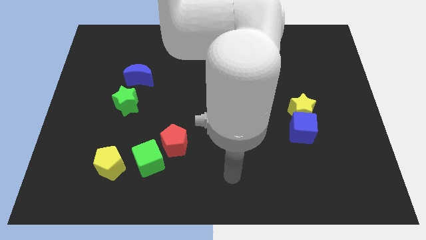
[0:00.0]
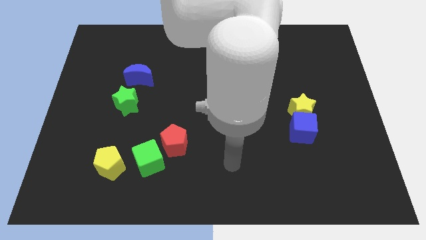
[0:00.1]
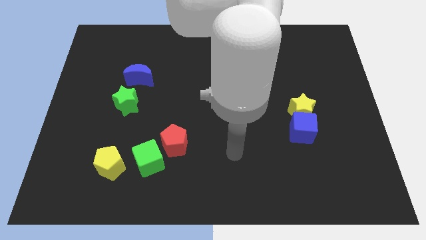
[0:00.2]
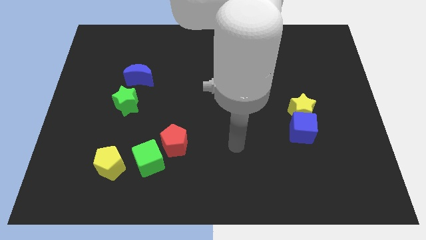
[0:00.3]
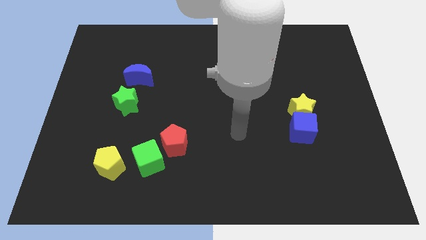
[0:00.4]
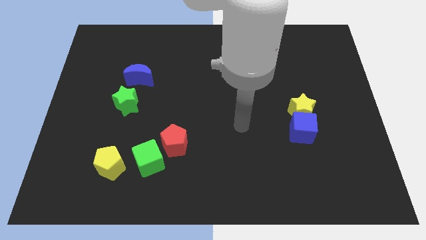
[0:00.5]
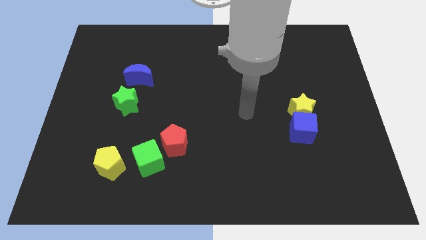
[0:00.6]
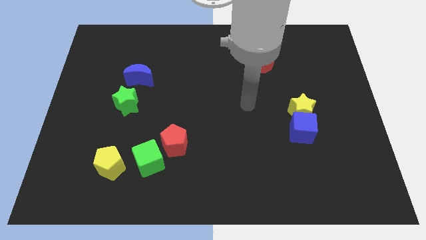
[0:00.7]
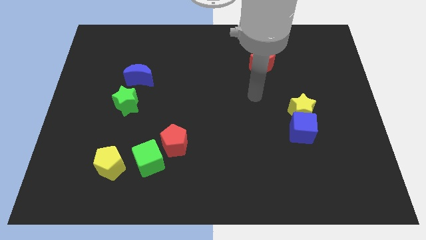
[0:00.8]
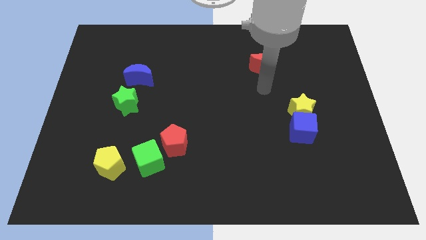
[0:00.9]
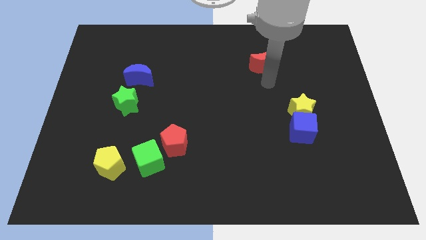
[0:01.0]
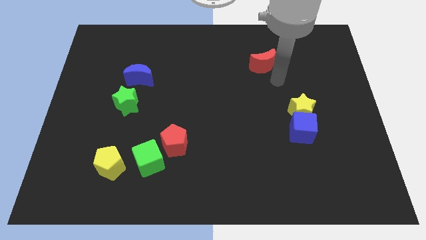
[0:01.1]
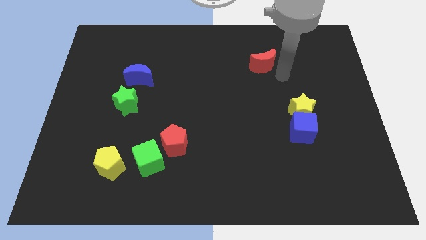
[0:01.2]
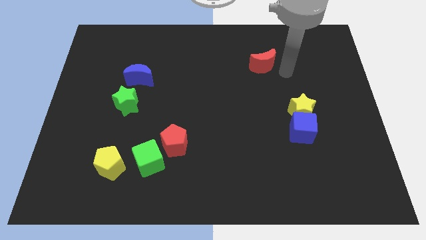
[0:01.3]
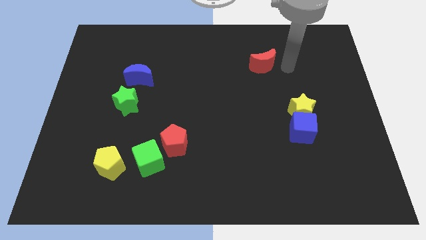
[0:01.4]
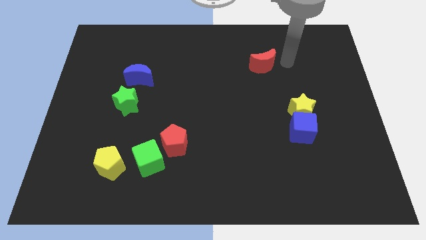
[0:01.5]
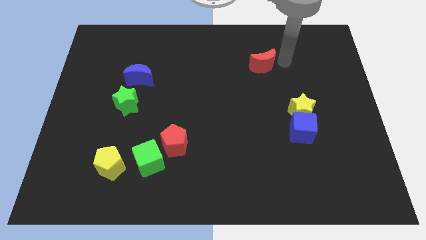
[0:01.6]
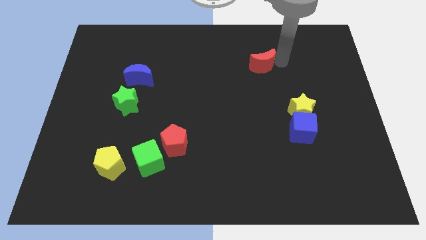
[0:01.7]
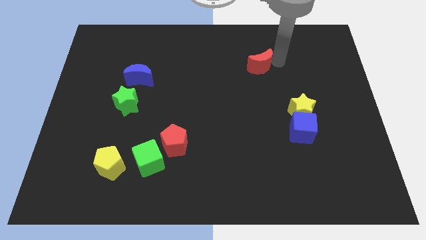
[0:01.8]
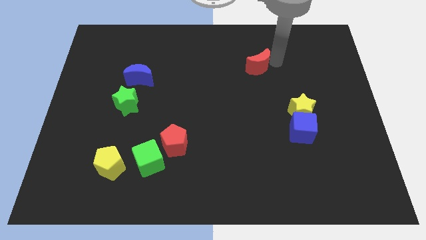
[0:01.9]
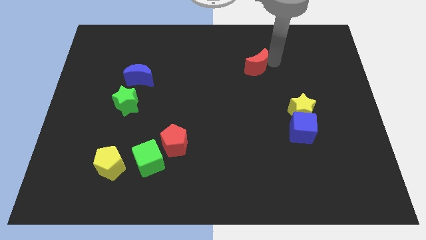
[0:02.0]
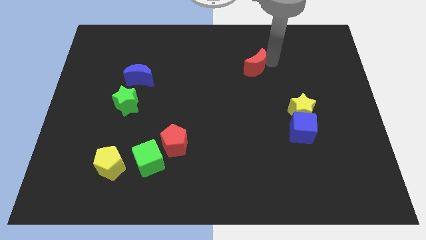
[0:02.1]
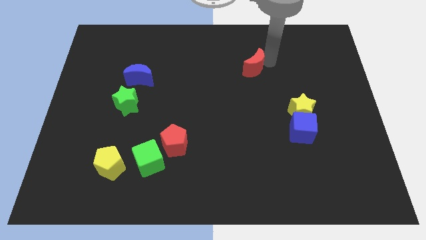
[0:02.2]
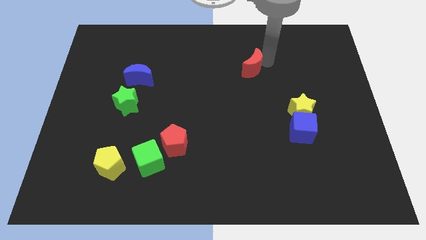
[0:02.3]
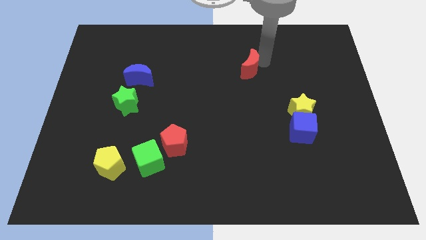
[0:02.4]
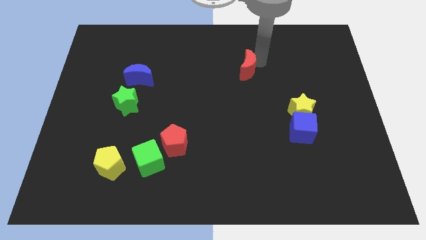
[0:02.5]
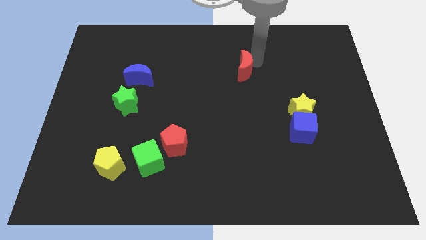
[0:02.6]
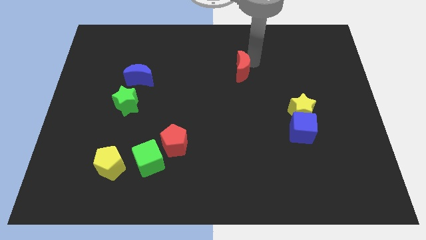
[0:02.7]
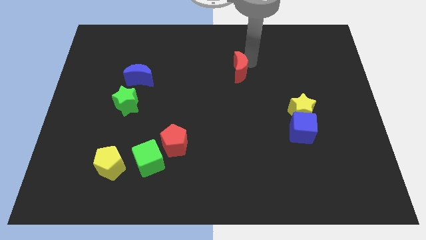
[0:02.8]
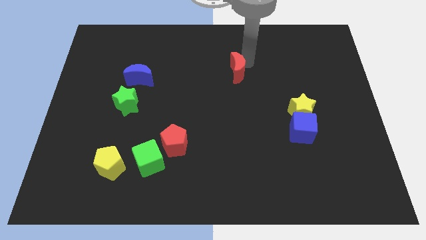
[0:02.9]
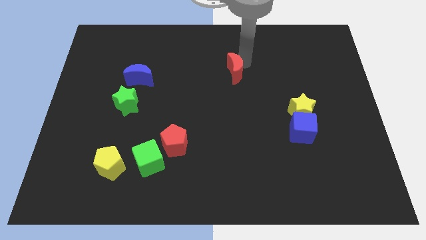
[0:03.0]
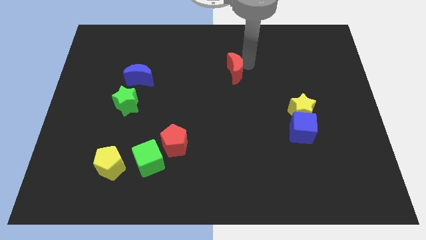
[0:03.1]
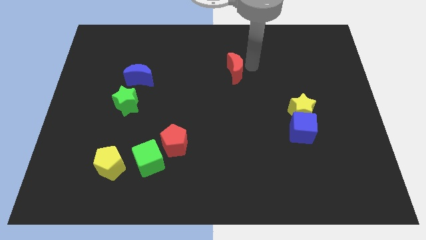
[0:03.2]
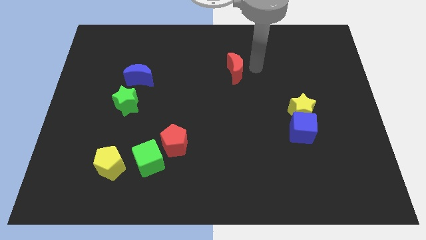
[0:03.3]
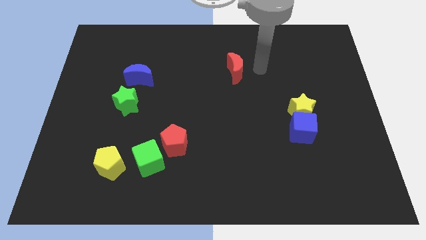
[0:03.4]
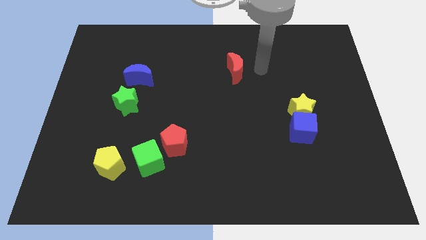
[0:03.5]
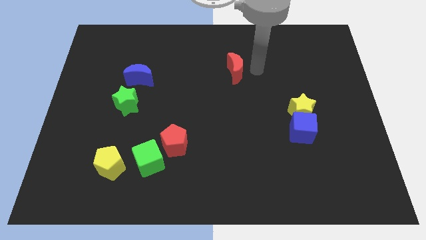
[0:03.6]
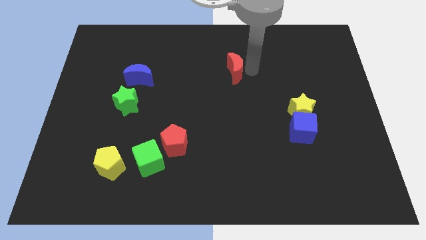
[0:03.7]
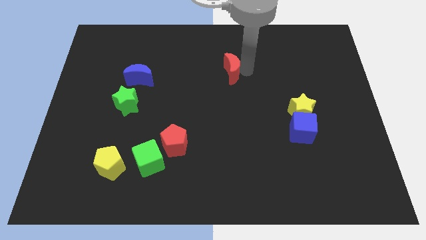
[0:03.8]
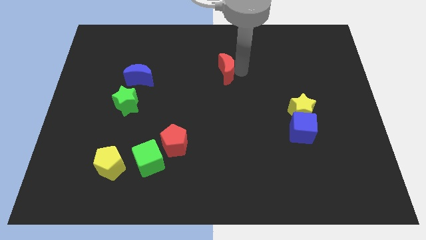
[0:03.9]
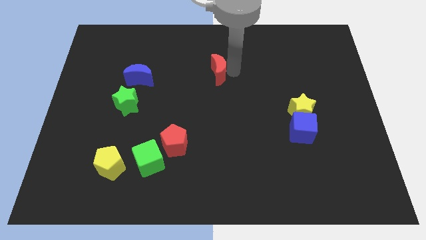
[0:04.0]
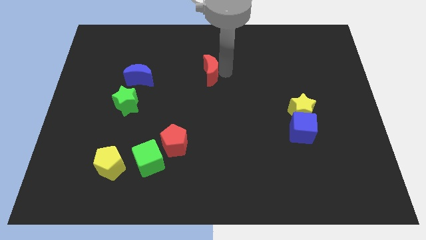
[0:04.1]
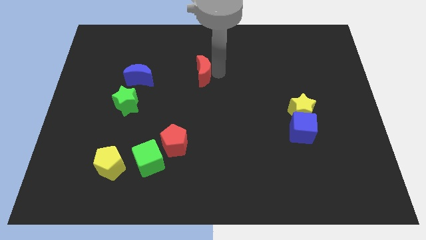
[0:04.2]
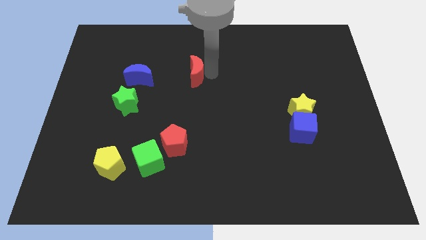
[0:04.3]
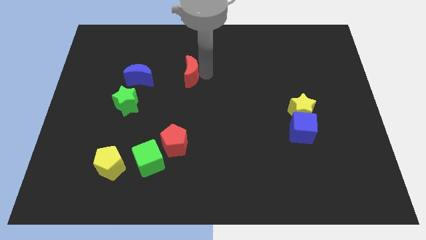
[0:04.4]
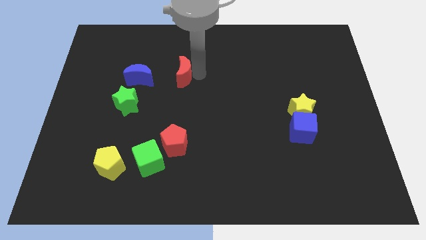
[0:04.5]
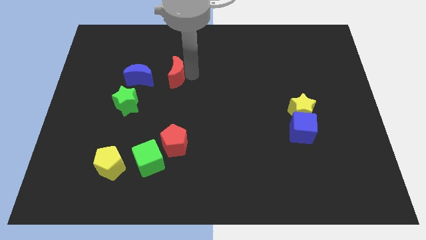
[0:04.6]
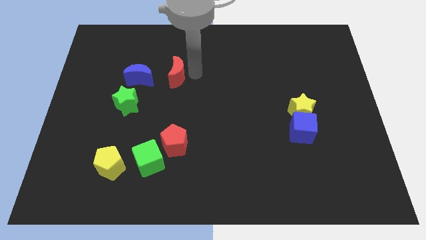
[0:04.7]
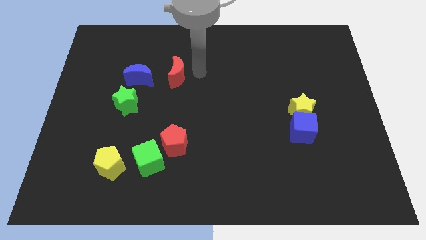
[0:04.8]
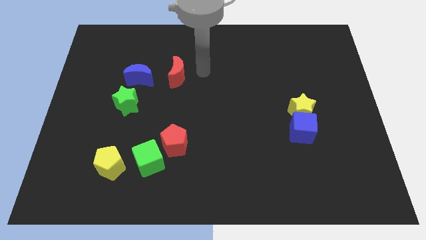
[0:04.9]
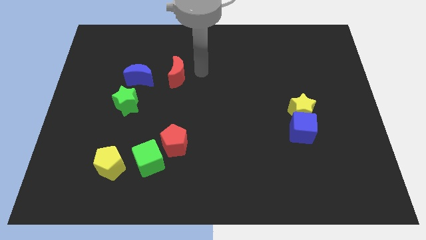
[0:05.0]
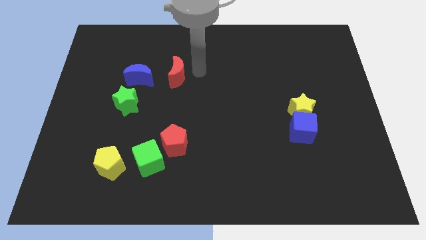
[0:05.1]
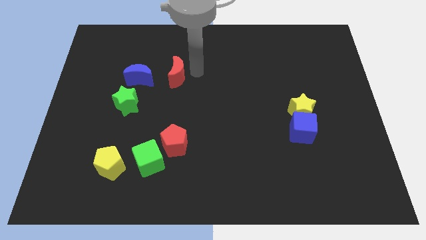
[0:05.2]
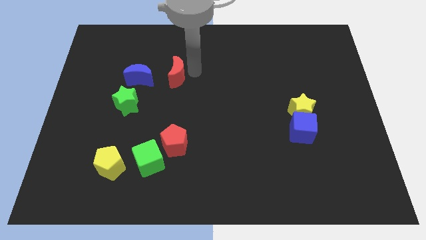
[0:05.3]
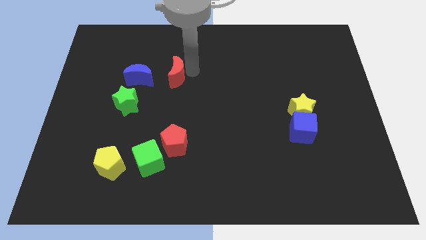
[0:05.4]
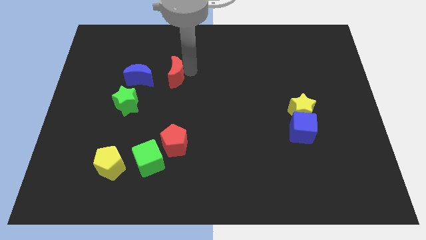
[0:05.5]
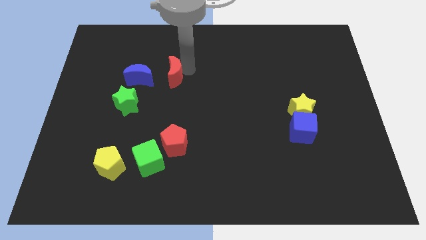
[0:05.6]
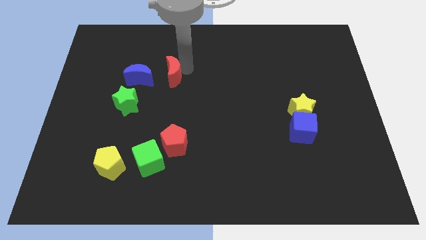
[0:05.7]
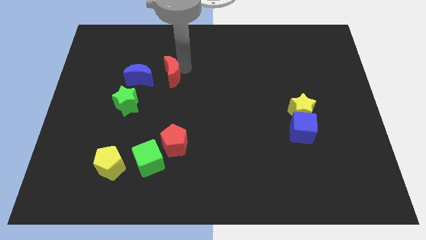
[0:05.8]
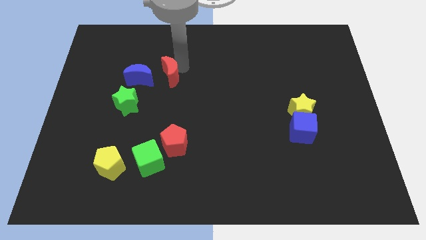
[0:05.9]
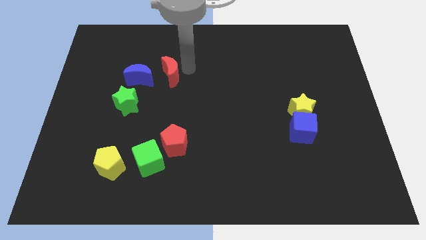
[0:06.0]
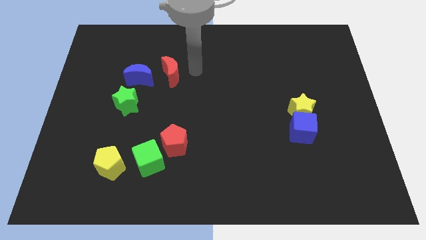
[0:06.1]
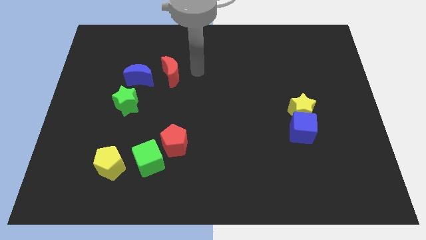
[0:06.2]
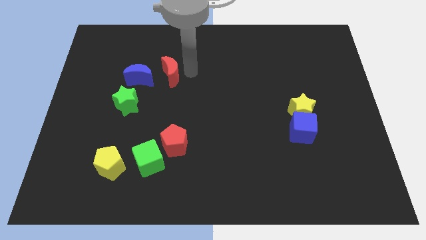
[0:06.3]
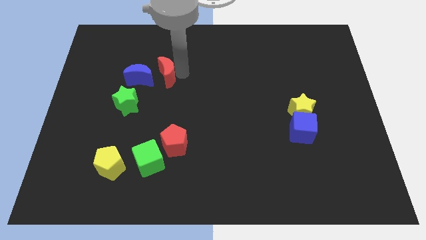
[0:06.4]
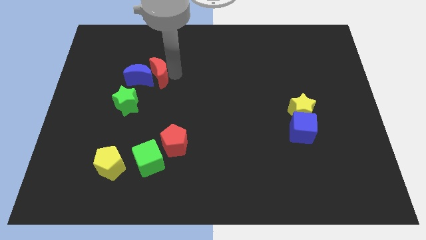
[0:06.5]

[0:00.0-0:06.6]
move the red moon next to the blue moon

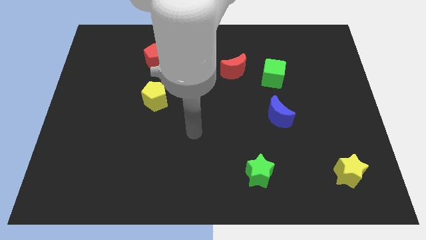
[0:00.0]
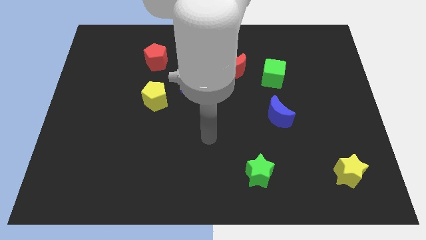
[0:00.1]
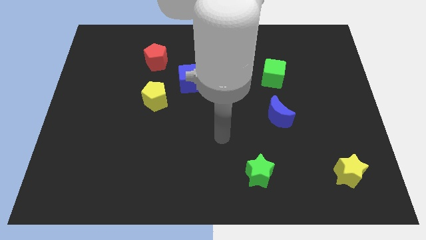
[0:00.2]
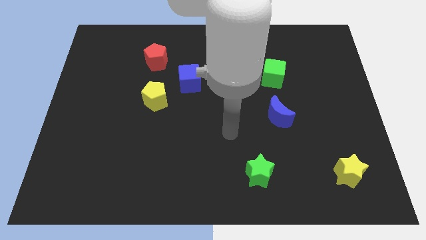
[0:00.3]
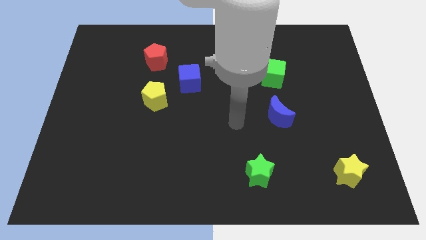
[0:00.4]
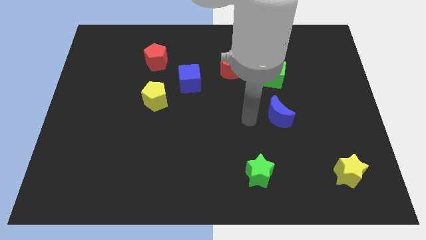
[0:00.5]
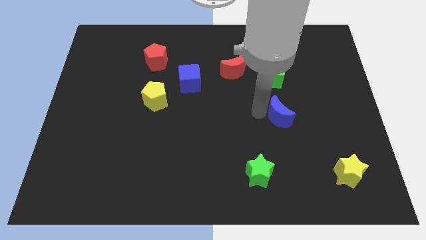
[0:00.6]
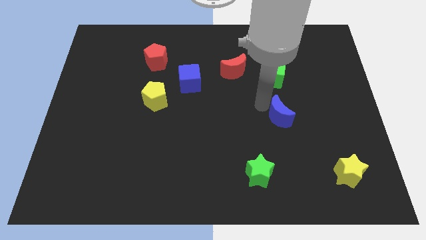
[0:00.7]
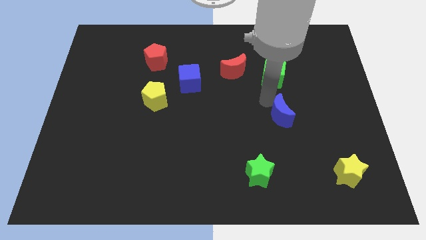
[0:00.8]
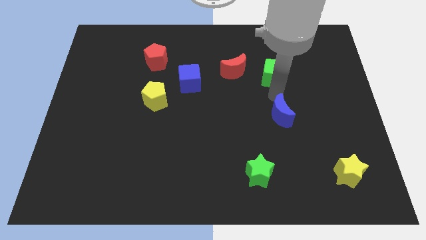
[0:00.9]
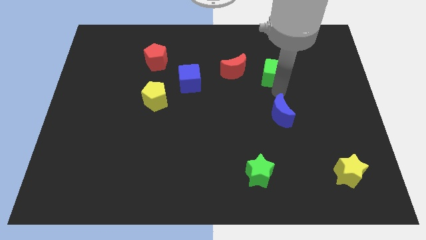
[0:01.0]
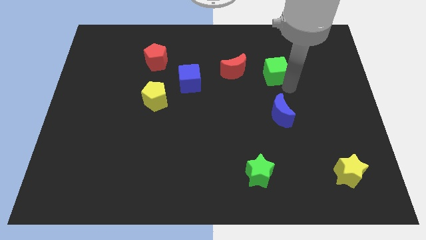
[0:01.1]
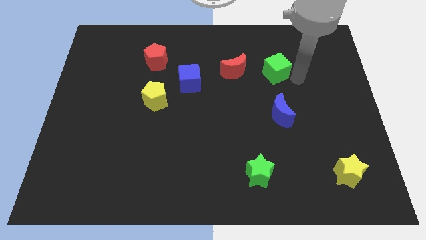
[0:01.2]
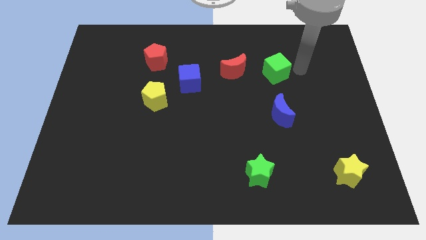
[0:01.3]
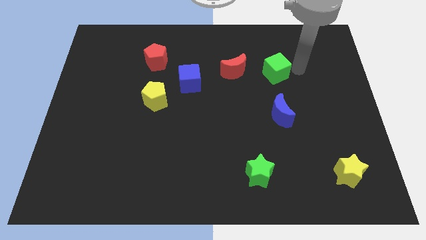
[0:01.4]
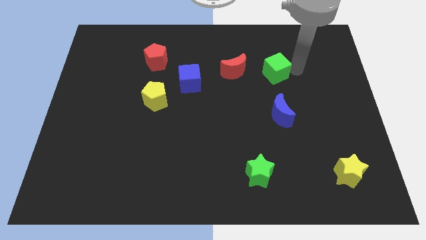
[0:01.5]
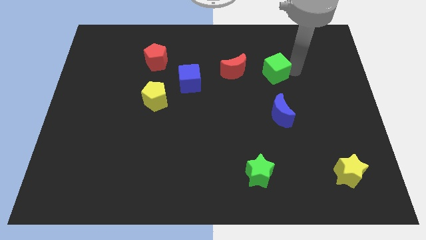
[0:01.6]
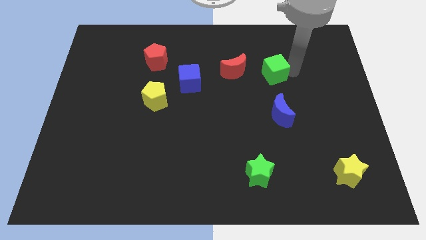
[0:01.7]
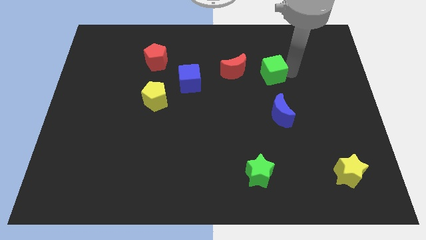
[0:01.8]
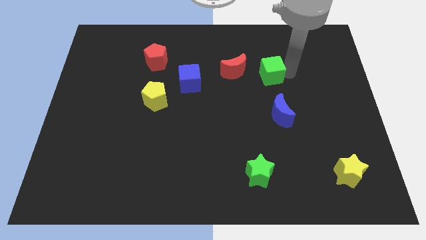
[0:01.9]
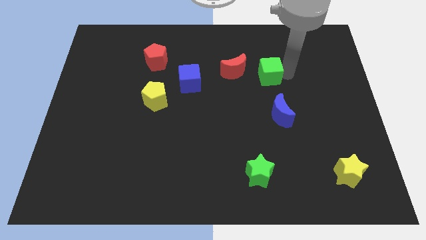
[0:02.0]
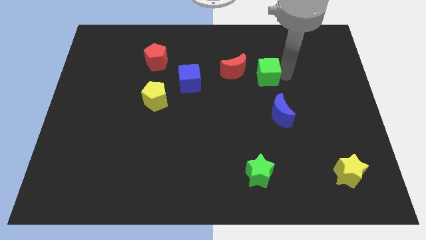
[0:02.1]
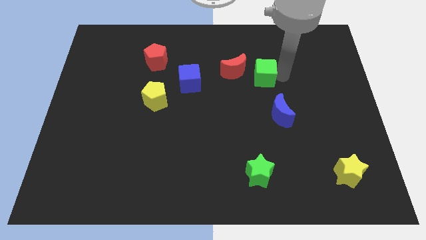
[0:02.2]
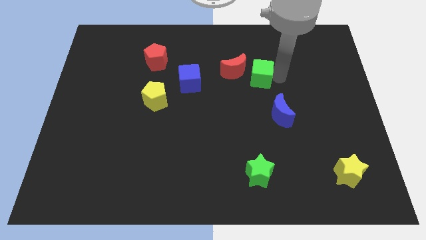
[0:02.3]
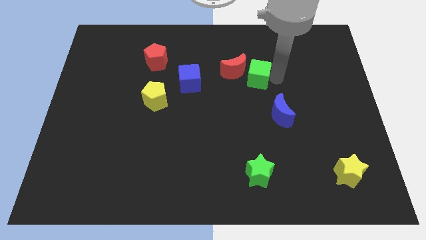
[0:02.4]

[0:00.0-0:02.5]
slide the green cube next to the red moon
